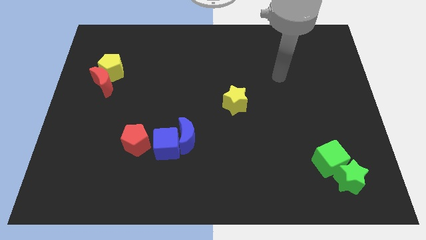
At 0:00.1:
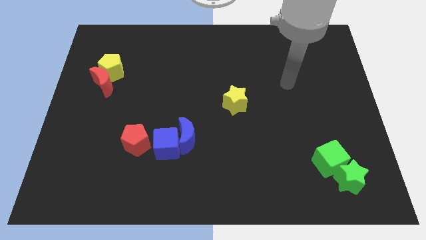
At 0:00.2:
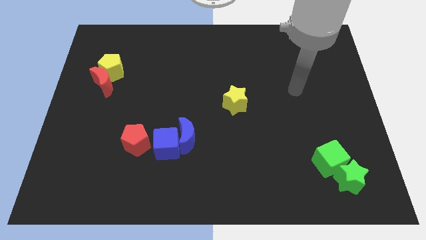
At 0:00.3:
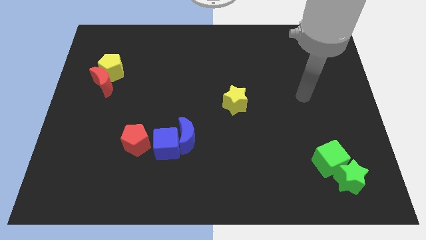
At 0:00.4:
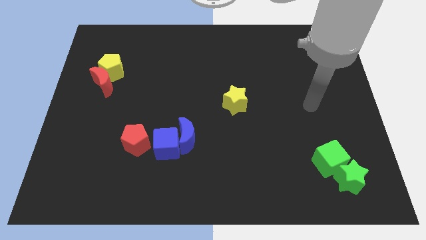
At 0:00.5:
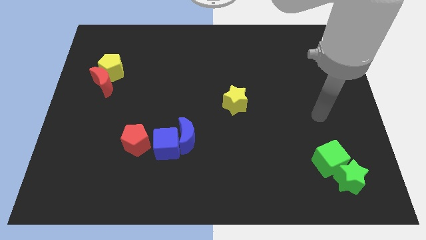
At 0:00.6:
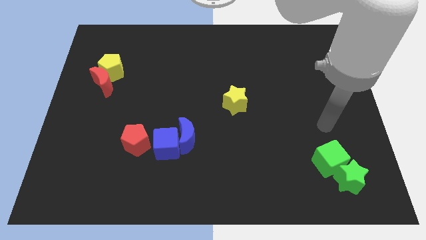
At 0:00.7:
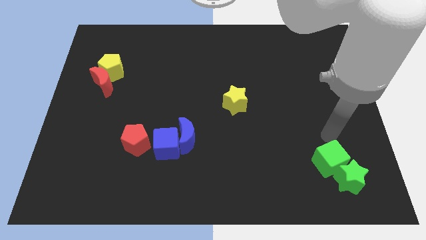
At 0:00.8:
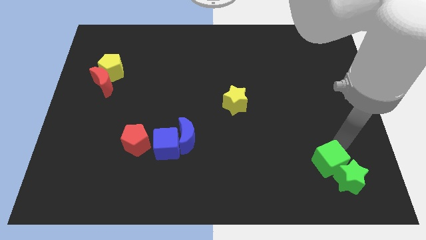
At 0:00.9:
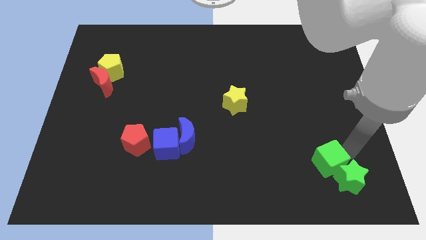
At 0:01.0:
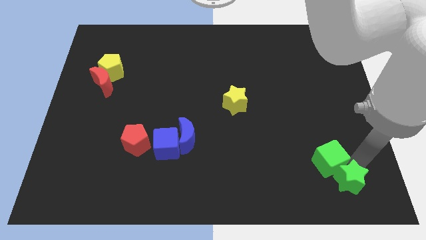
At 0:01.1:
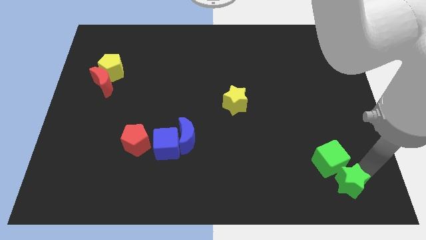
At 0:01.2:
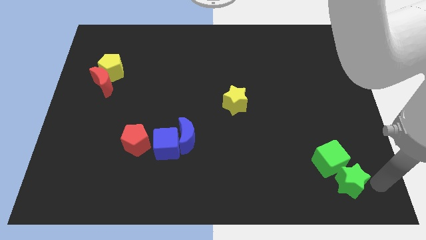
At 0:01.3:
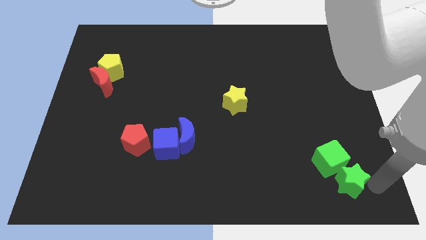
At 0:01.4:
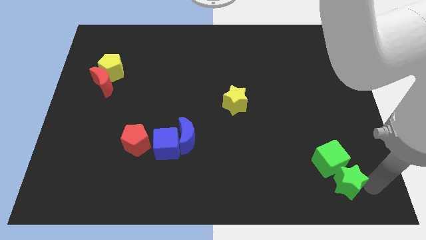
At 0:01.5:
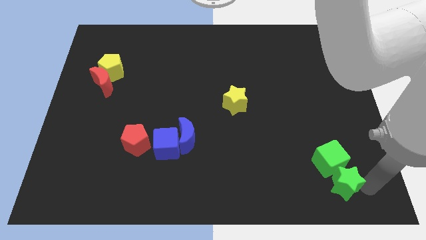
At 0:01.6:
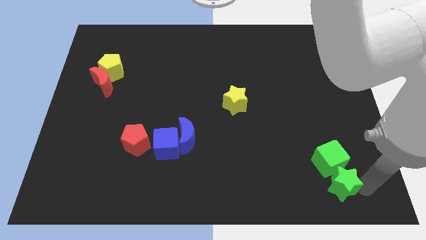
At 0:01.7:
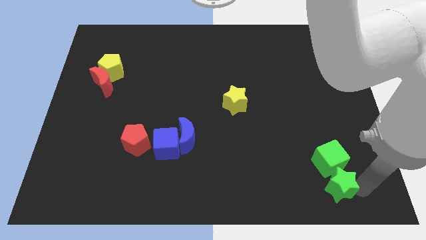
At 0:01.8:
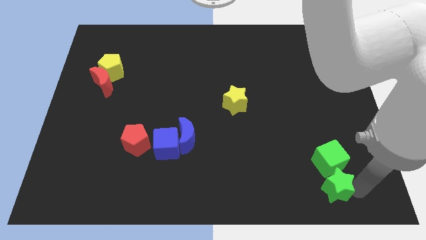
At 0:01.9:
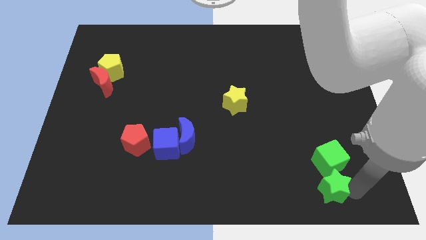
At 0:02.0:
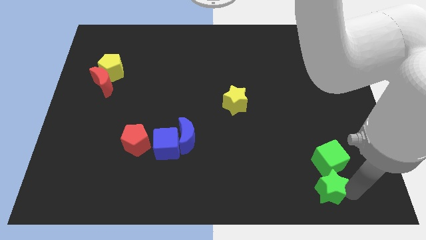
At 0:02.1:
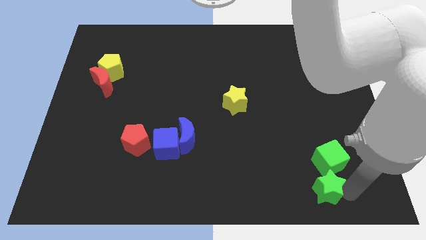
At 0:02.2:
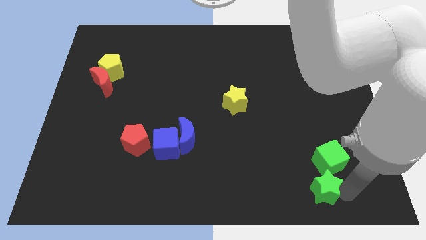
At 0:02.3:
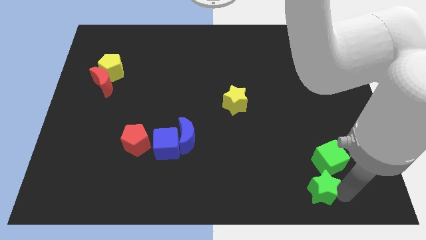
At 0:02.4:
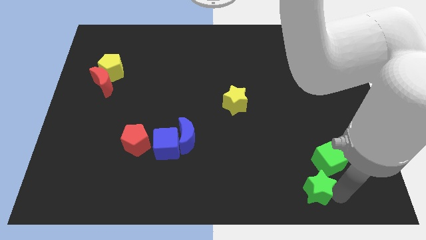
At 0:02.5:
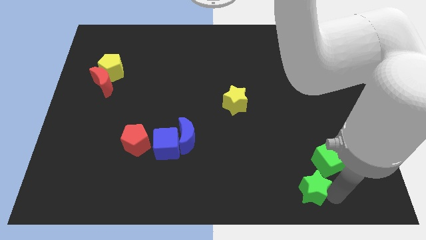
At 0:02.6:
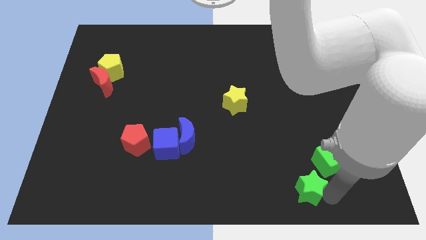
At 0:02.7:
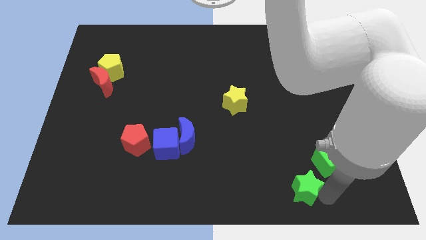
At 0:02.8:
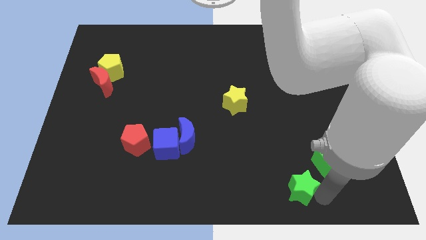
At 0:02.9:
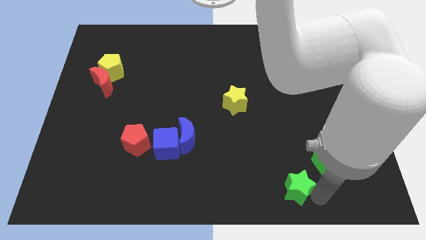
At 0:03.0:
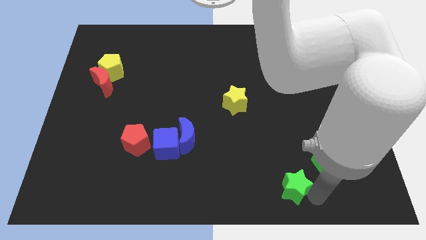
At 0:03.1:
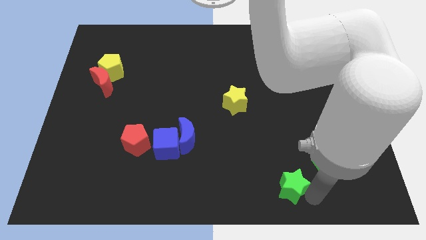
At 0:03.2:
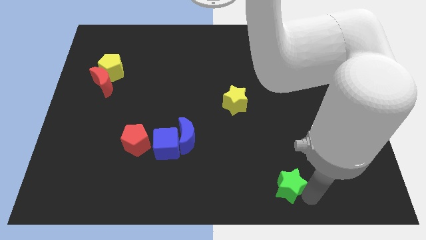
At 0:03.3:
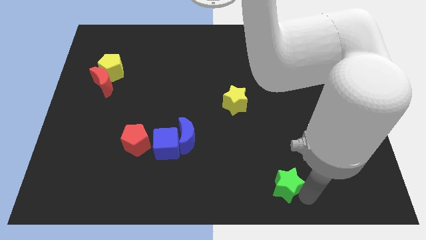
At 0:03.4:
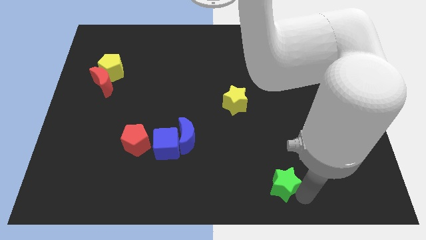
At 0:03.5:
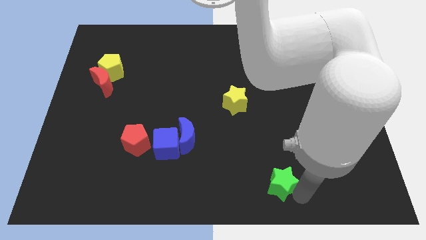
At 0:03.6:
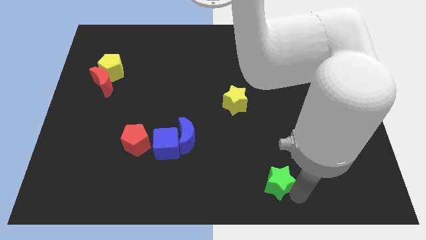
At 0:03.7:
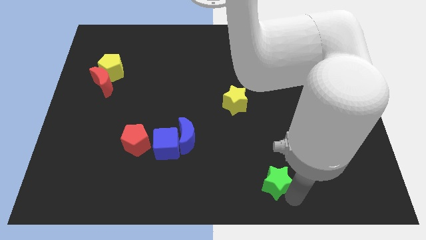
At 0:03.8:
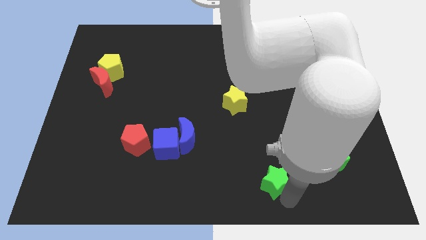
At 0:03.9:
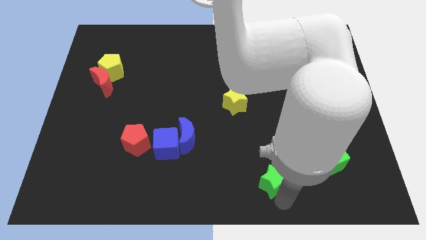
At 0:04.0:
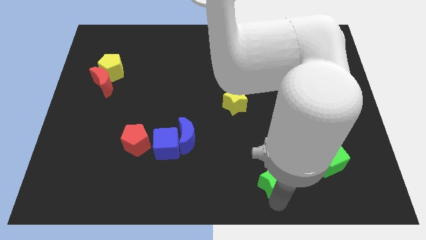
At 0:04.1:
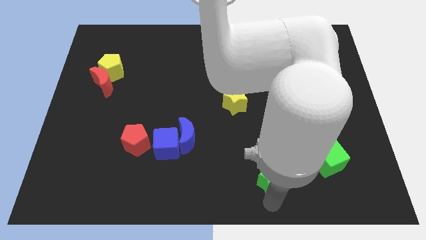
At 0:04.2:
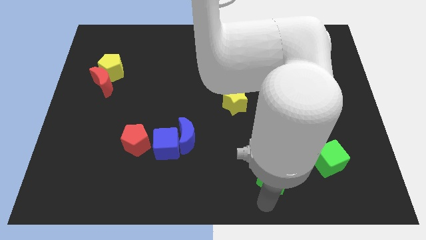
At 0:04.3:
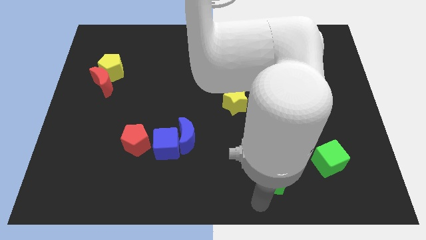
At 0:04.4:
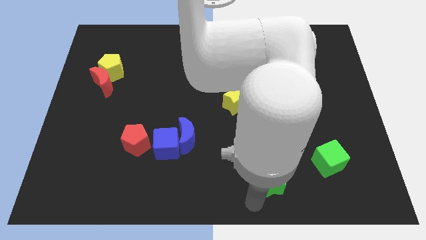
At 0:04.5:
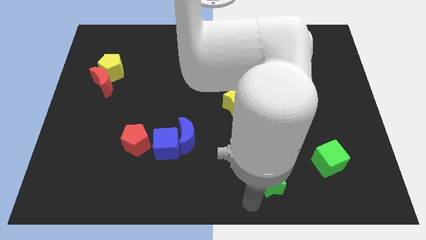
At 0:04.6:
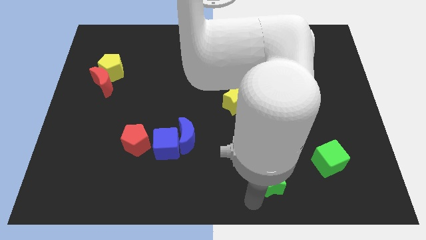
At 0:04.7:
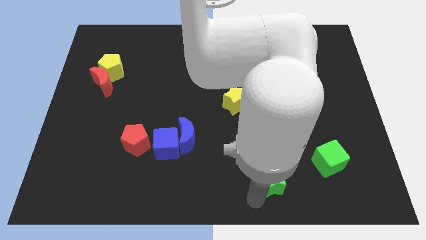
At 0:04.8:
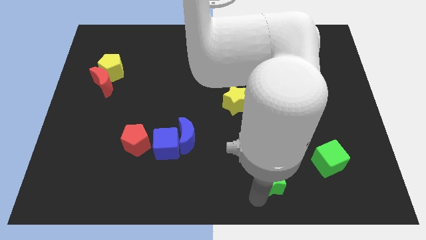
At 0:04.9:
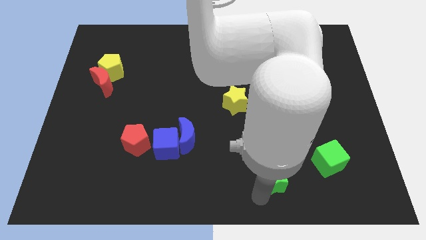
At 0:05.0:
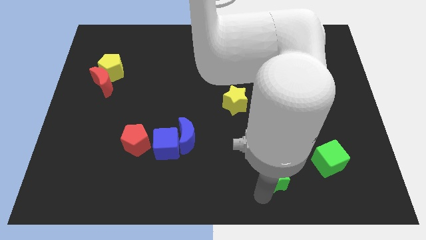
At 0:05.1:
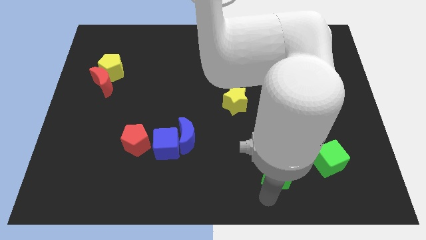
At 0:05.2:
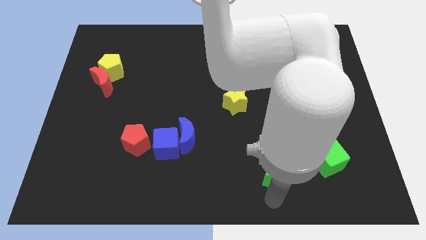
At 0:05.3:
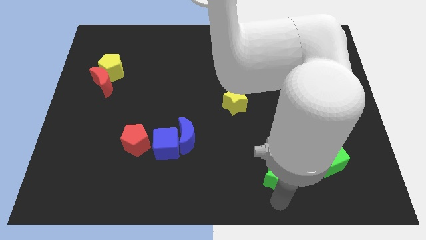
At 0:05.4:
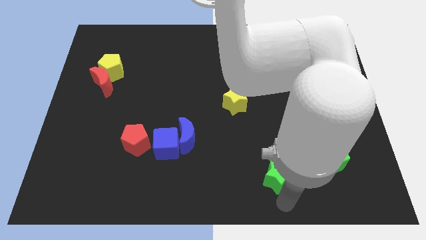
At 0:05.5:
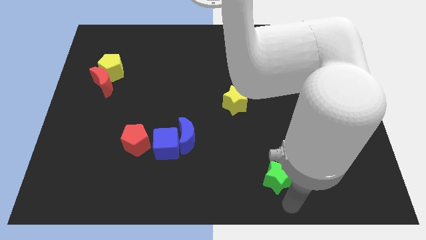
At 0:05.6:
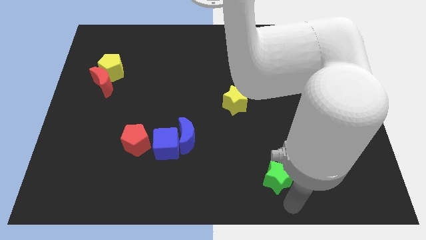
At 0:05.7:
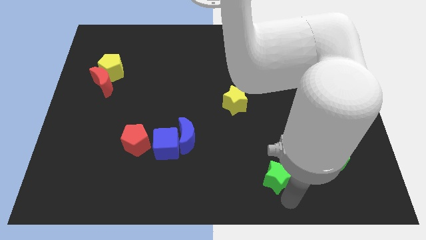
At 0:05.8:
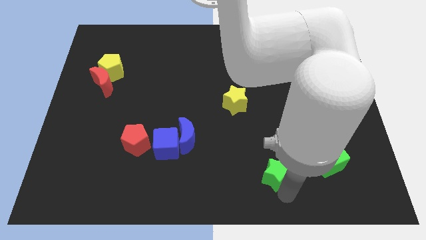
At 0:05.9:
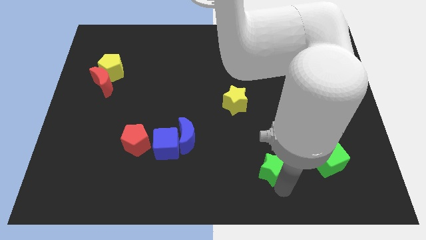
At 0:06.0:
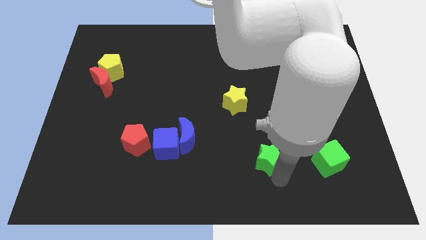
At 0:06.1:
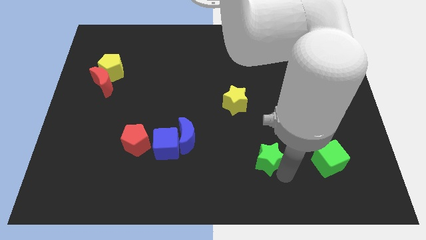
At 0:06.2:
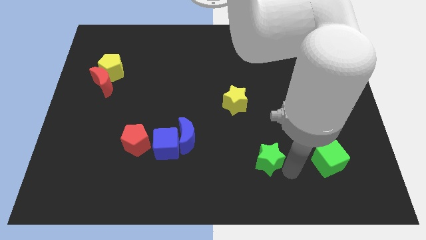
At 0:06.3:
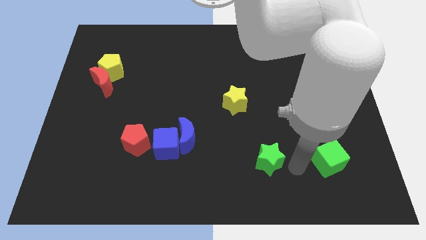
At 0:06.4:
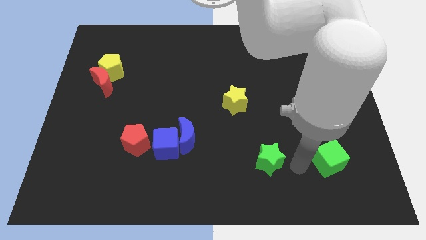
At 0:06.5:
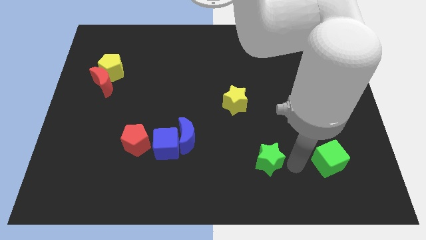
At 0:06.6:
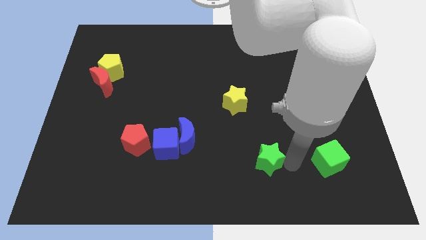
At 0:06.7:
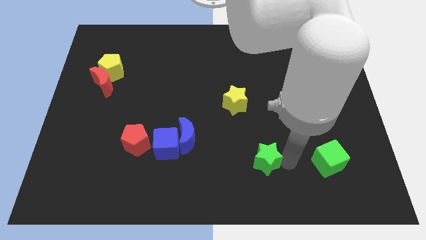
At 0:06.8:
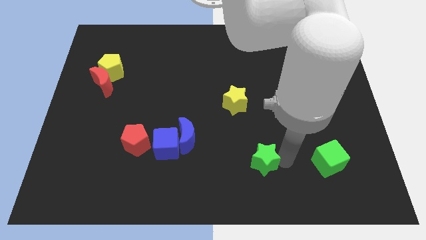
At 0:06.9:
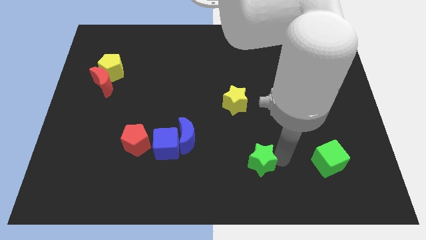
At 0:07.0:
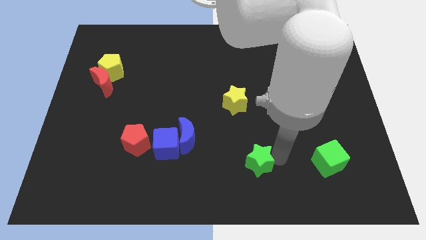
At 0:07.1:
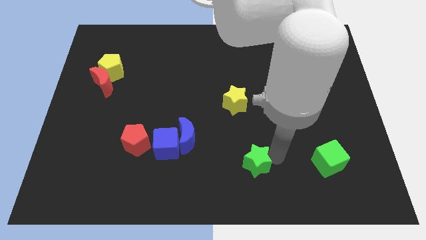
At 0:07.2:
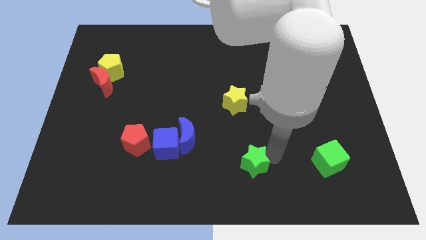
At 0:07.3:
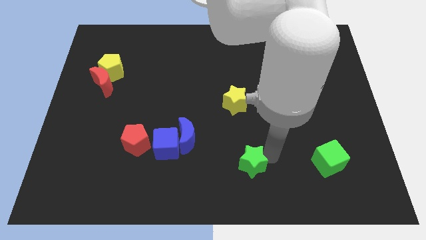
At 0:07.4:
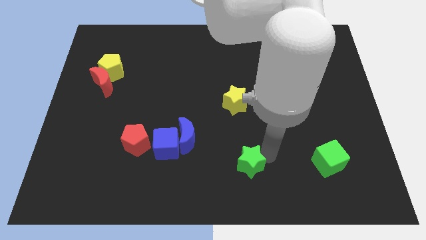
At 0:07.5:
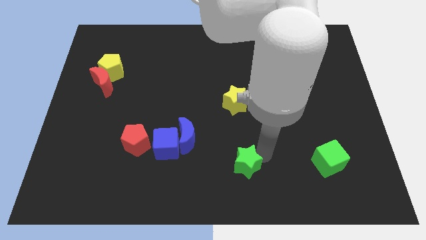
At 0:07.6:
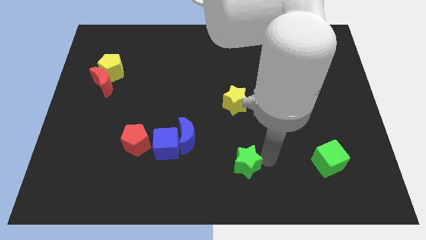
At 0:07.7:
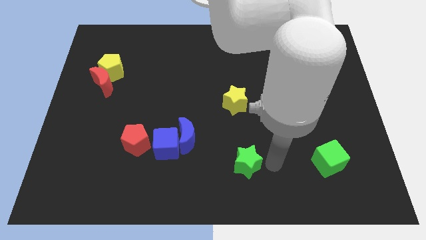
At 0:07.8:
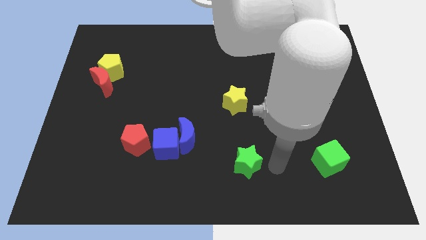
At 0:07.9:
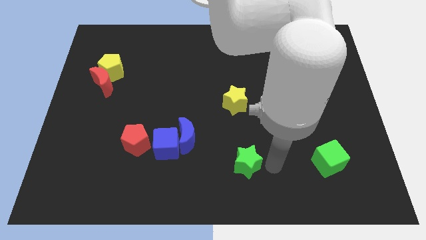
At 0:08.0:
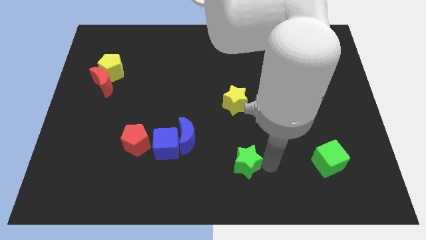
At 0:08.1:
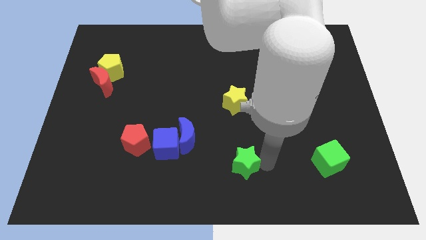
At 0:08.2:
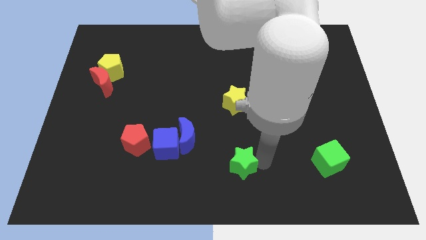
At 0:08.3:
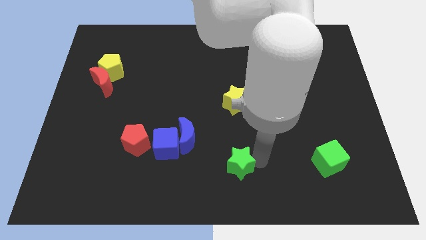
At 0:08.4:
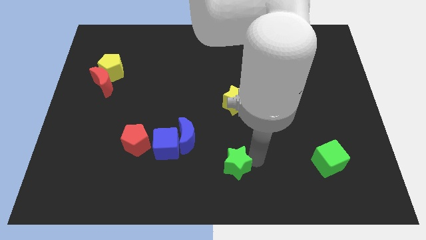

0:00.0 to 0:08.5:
slide the green star to the bottom right side of the blue moon
